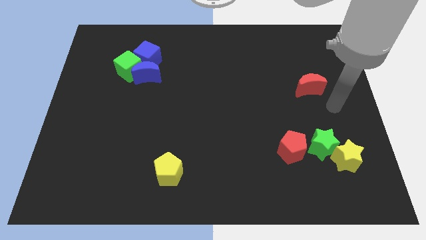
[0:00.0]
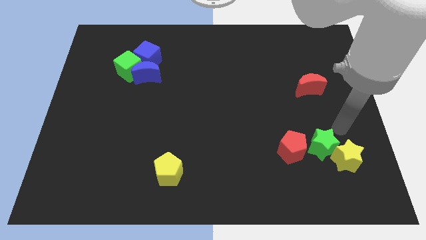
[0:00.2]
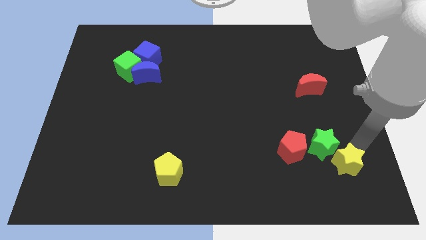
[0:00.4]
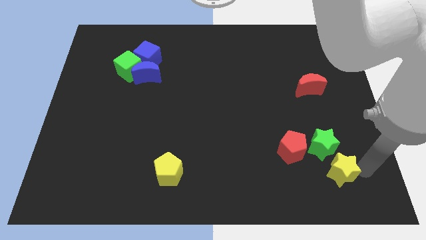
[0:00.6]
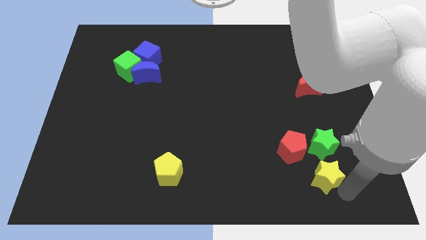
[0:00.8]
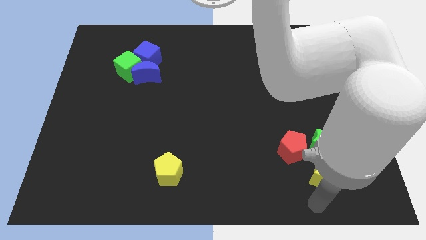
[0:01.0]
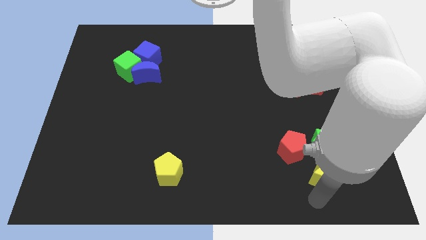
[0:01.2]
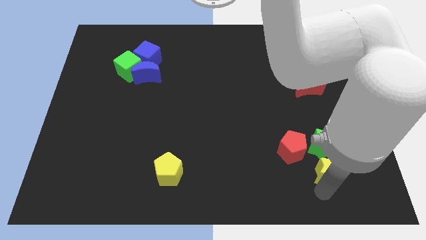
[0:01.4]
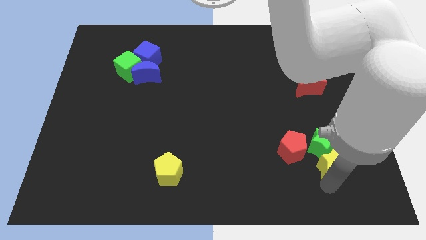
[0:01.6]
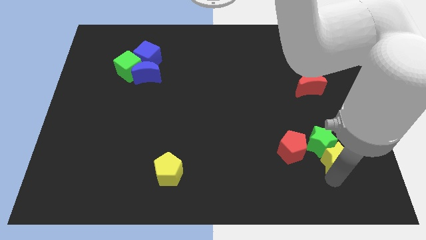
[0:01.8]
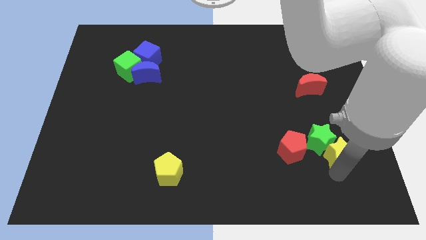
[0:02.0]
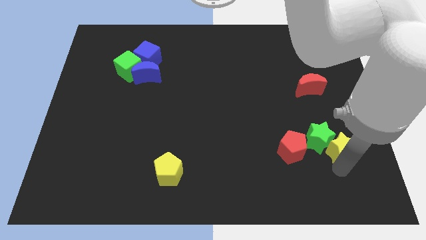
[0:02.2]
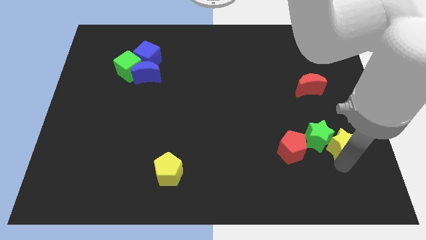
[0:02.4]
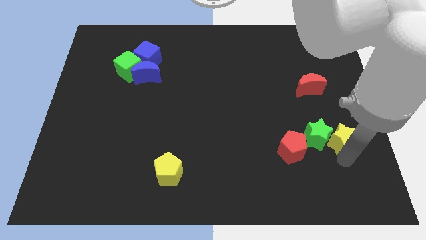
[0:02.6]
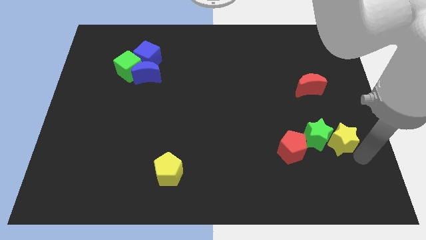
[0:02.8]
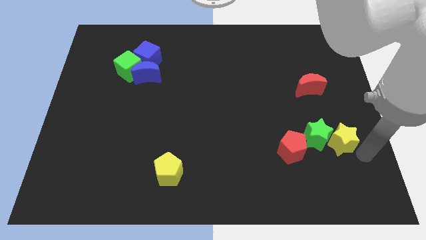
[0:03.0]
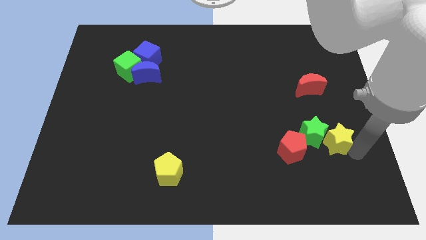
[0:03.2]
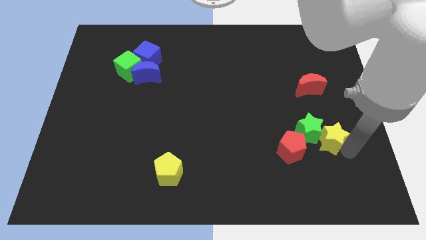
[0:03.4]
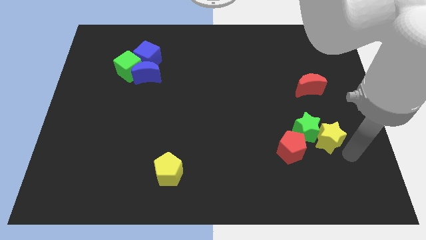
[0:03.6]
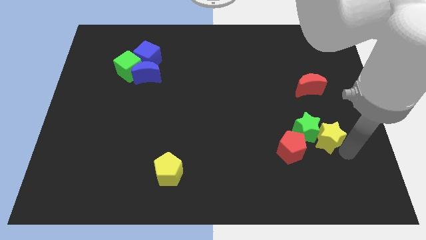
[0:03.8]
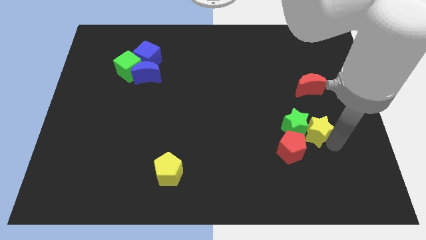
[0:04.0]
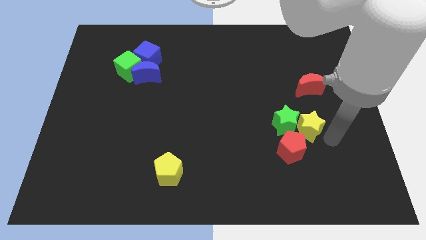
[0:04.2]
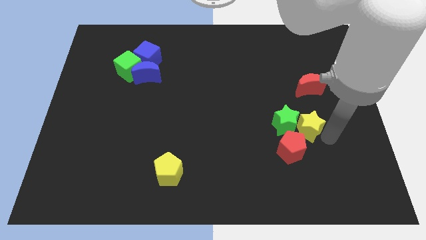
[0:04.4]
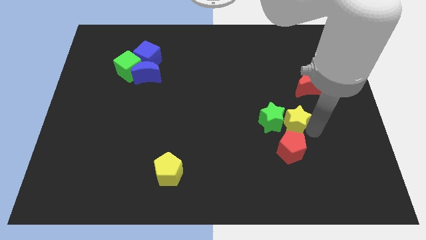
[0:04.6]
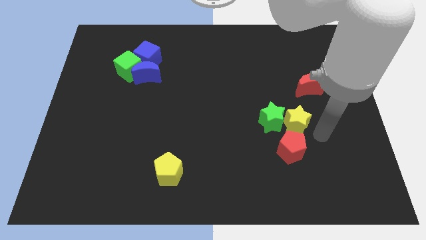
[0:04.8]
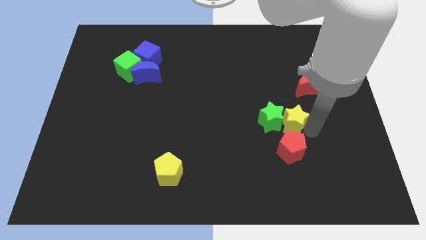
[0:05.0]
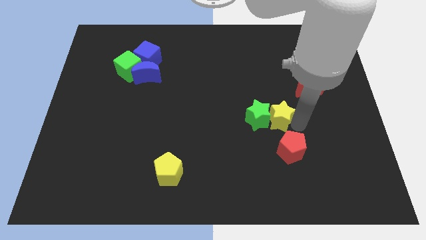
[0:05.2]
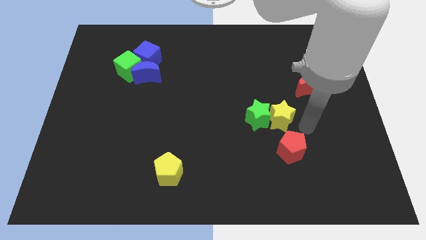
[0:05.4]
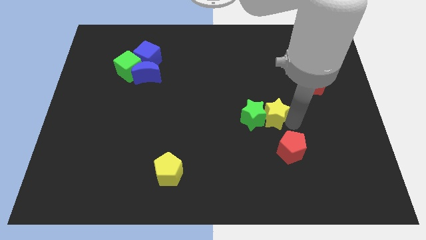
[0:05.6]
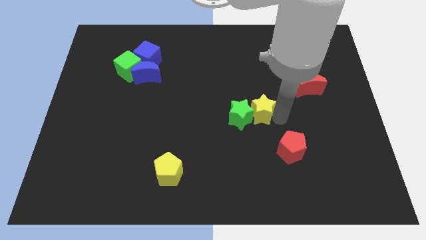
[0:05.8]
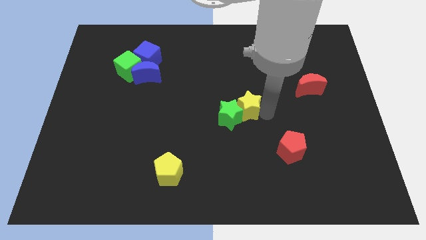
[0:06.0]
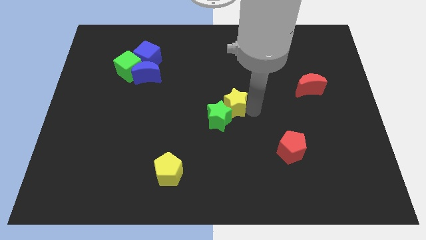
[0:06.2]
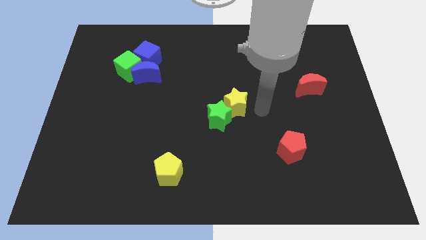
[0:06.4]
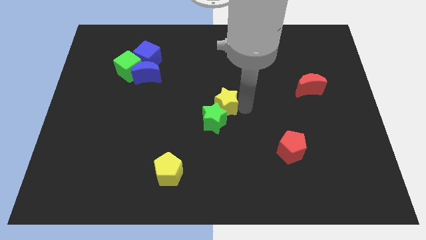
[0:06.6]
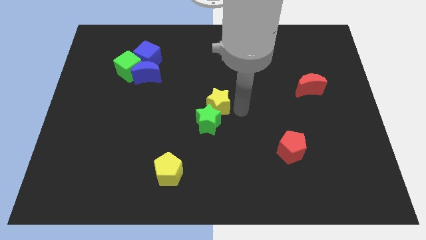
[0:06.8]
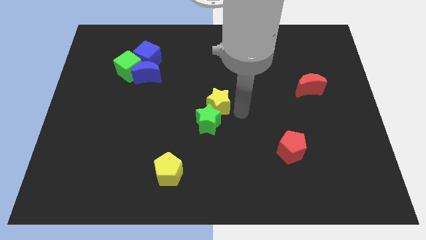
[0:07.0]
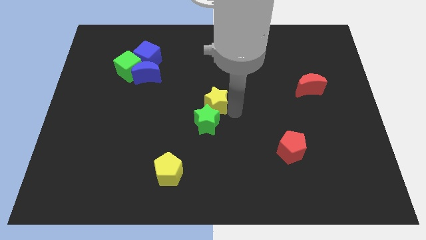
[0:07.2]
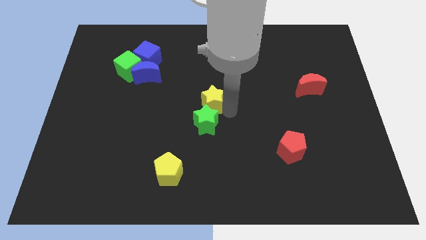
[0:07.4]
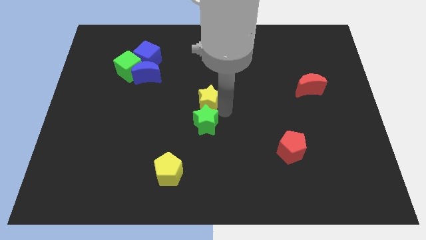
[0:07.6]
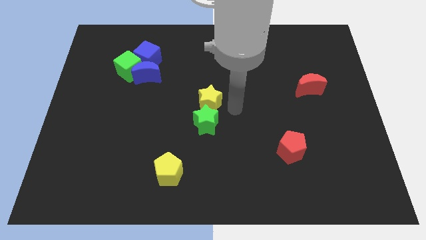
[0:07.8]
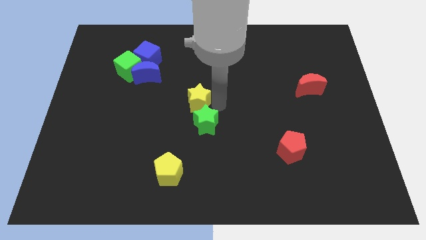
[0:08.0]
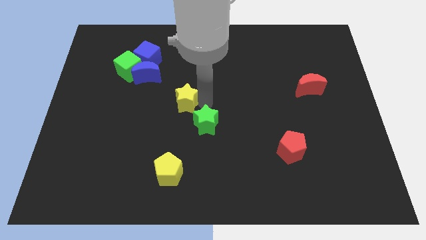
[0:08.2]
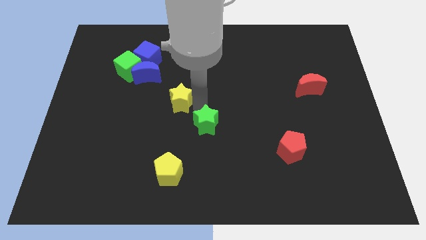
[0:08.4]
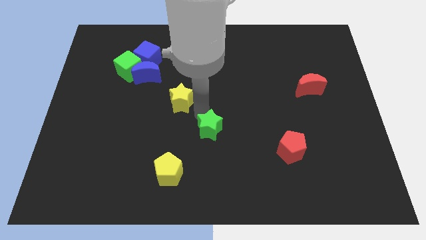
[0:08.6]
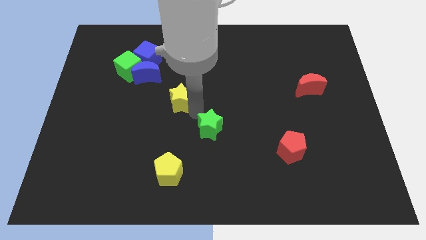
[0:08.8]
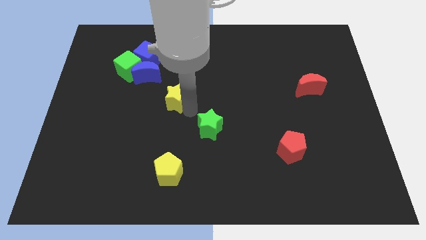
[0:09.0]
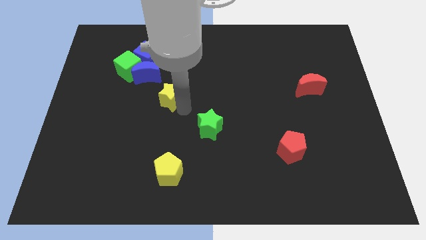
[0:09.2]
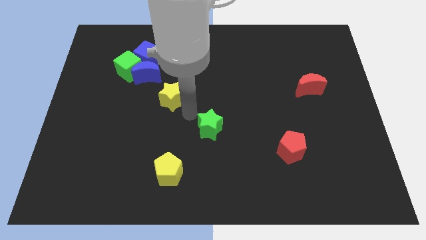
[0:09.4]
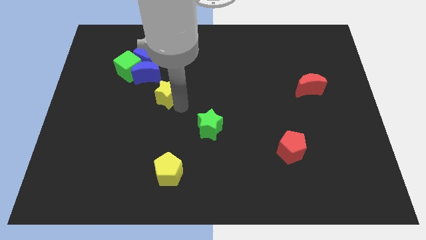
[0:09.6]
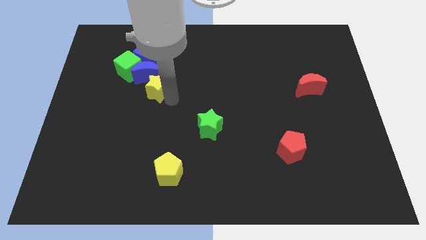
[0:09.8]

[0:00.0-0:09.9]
push the yellow star next to the blue moon

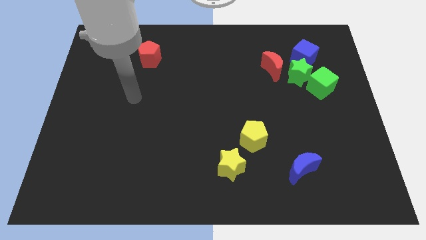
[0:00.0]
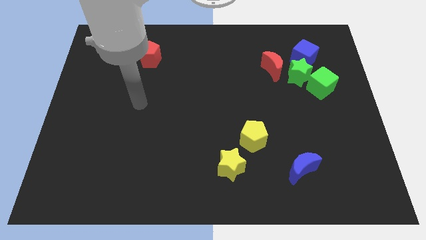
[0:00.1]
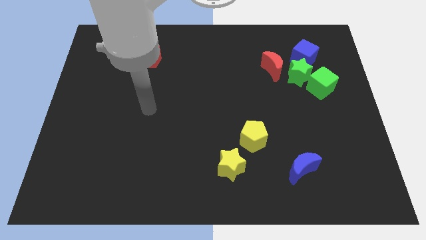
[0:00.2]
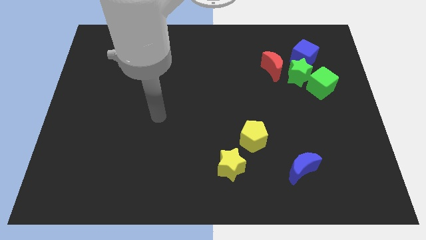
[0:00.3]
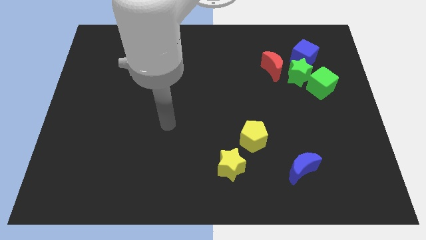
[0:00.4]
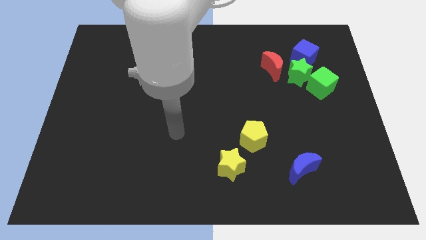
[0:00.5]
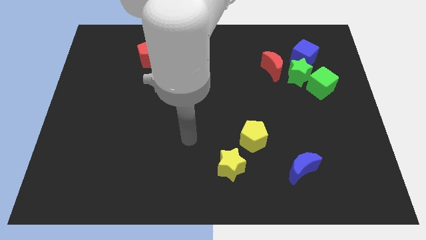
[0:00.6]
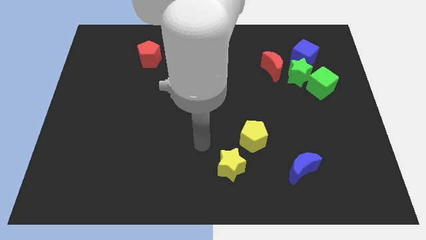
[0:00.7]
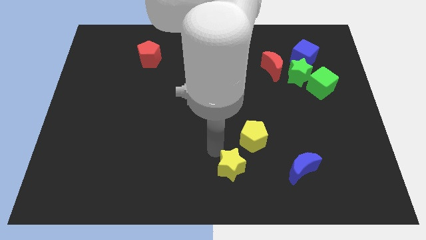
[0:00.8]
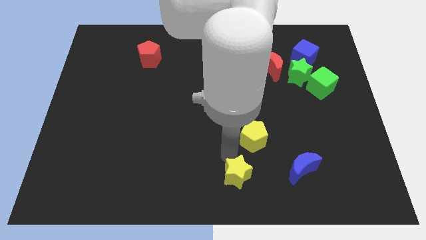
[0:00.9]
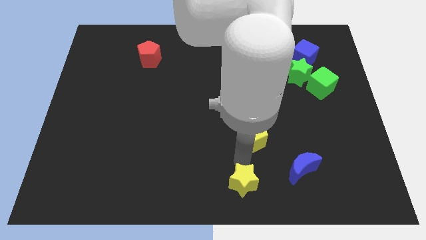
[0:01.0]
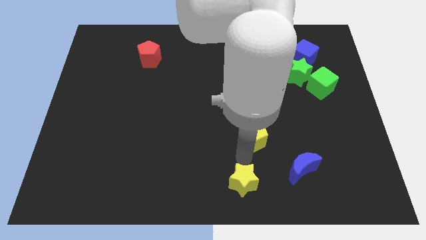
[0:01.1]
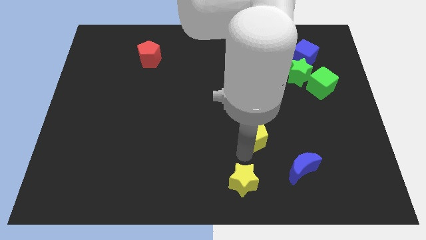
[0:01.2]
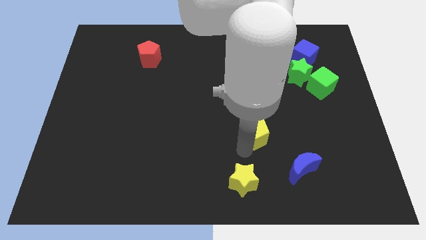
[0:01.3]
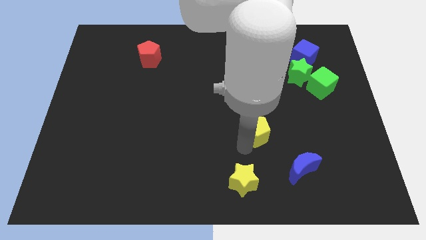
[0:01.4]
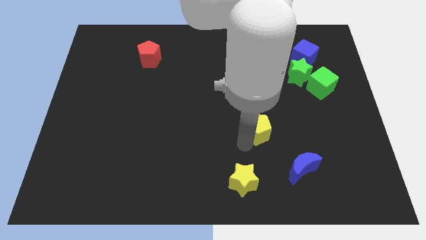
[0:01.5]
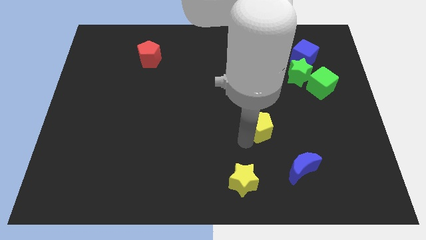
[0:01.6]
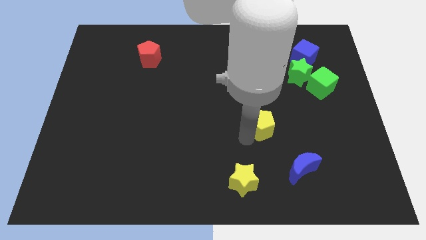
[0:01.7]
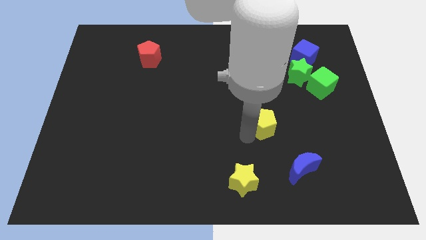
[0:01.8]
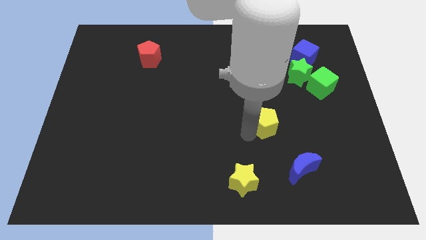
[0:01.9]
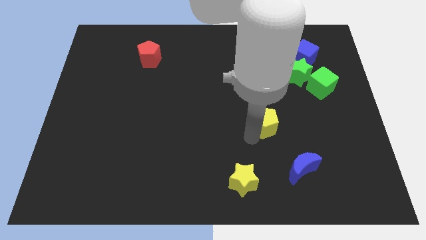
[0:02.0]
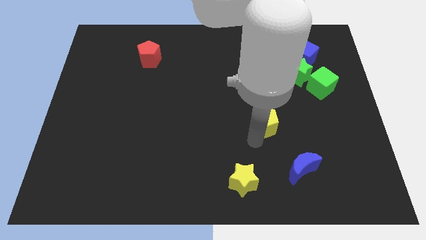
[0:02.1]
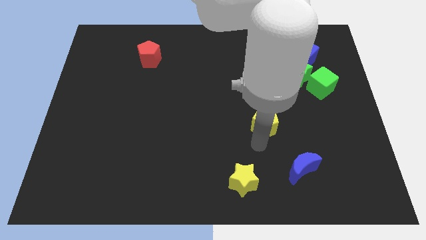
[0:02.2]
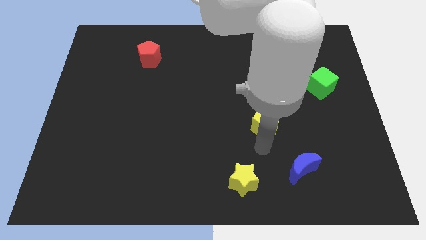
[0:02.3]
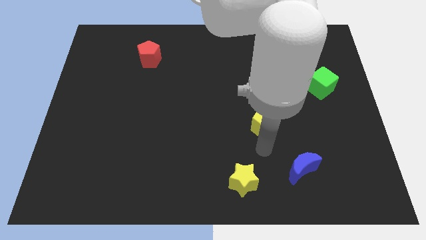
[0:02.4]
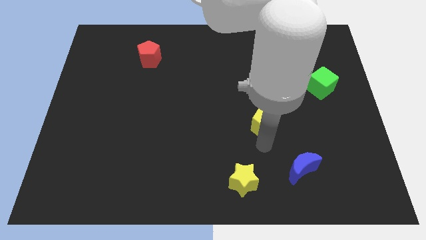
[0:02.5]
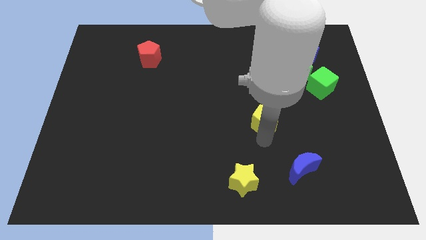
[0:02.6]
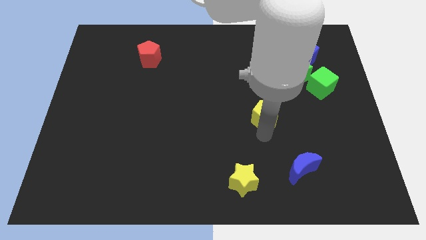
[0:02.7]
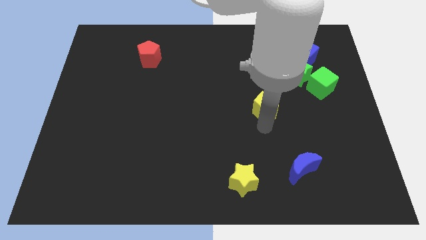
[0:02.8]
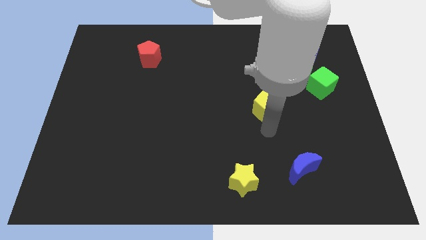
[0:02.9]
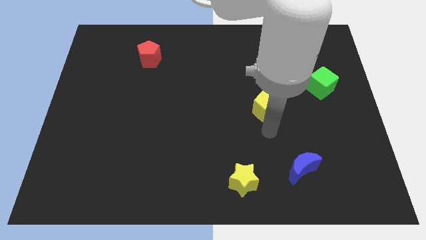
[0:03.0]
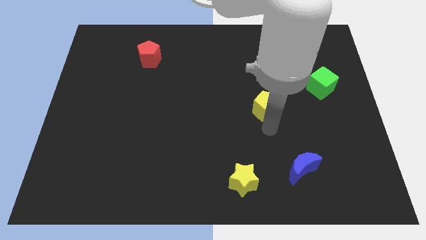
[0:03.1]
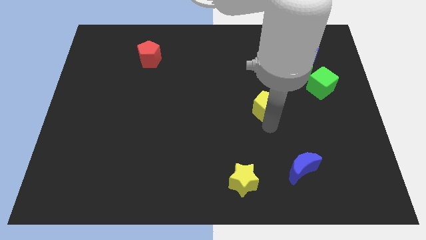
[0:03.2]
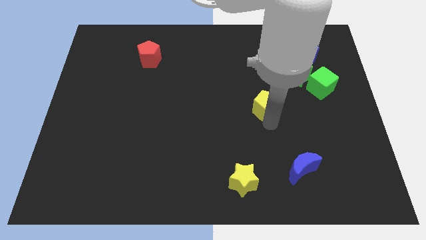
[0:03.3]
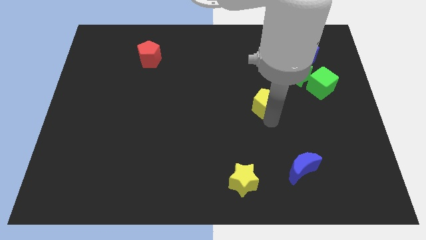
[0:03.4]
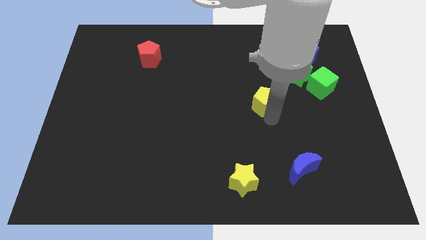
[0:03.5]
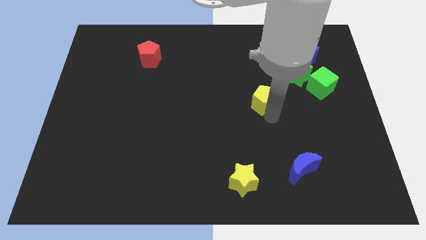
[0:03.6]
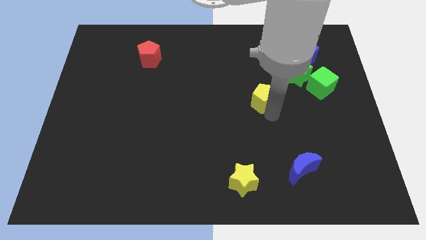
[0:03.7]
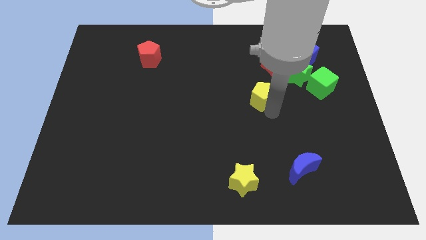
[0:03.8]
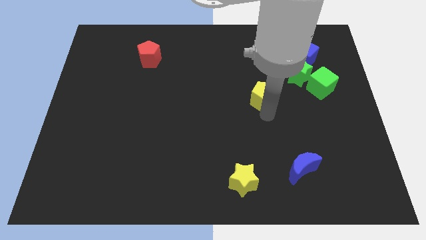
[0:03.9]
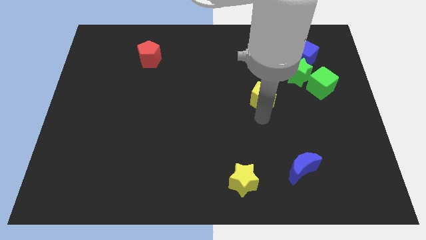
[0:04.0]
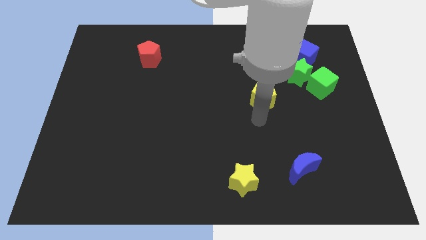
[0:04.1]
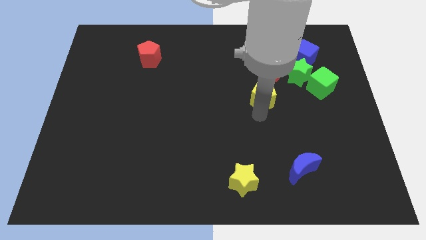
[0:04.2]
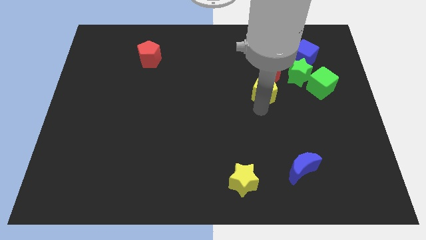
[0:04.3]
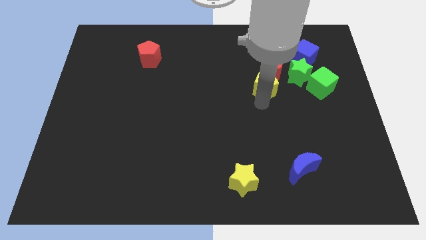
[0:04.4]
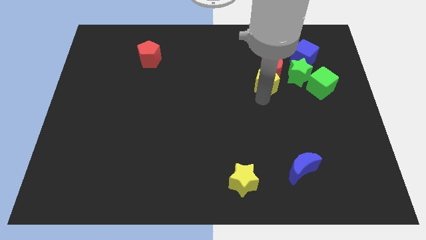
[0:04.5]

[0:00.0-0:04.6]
push the yellow pentagon to the red moon
